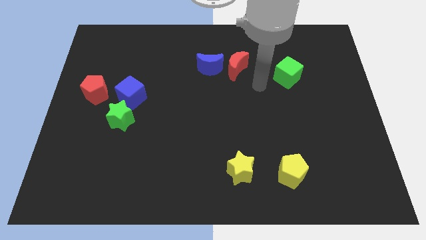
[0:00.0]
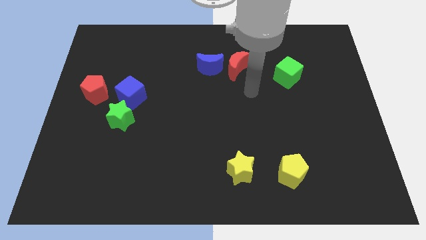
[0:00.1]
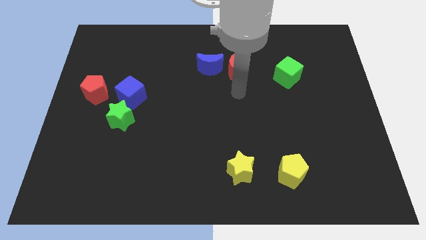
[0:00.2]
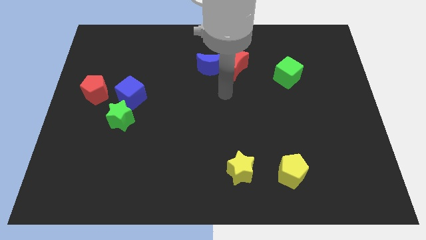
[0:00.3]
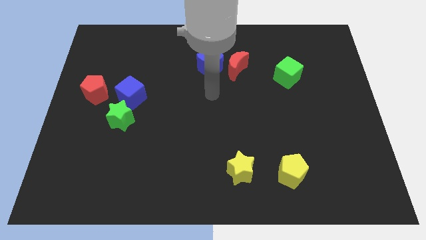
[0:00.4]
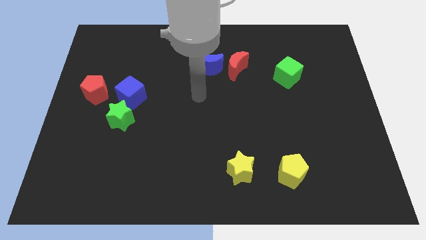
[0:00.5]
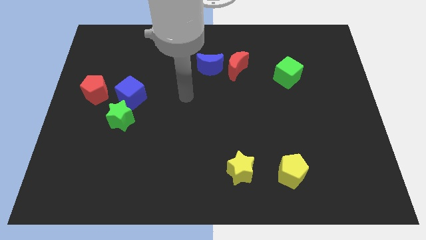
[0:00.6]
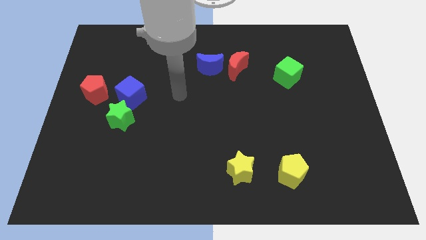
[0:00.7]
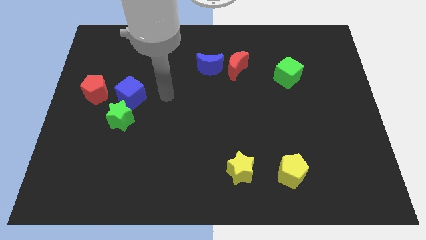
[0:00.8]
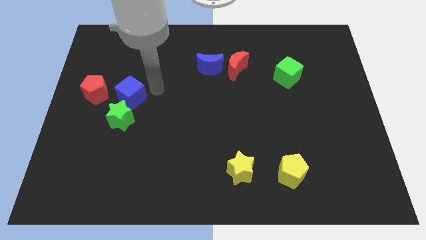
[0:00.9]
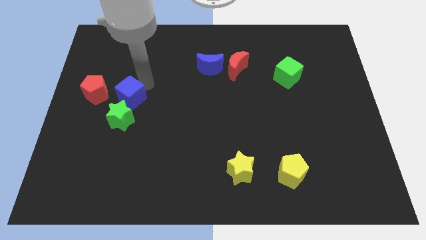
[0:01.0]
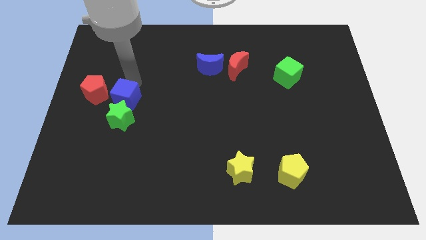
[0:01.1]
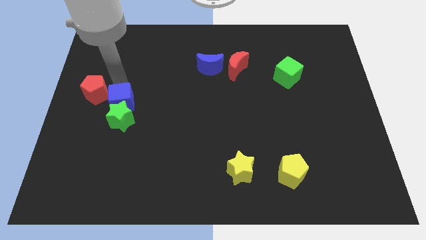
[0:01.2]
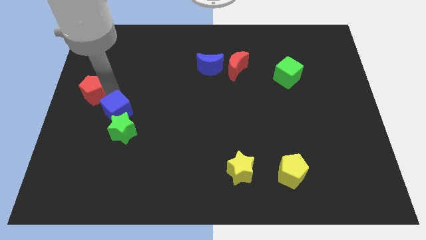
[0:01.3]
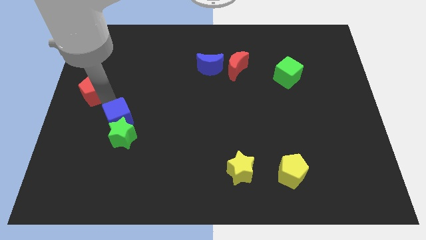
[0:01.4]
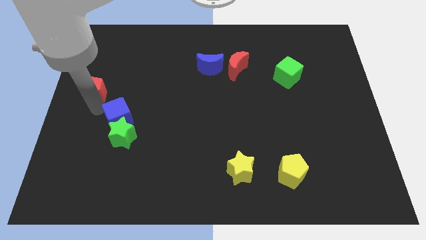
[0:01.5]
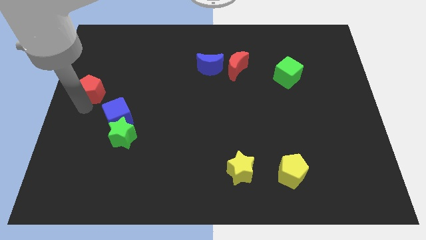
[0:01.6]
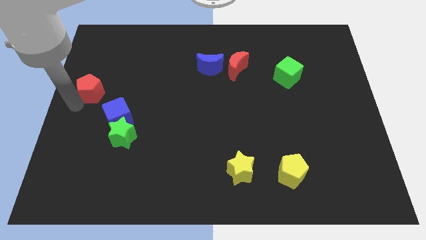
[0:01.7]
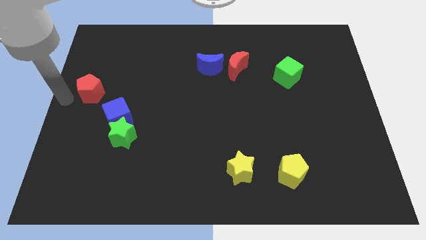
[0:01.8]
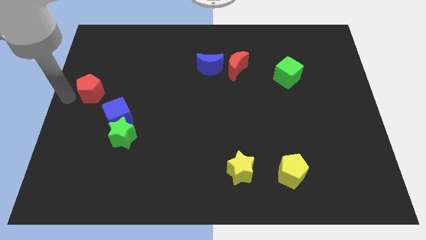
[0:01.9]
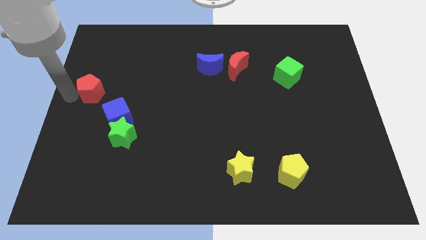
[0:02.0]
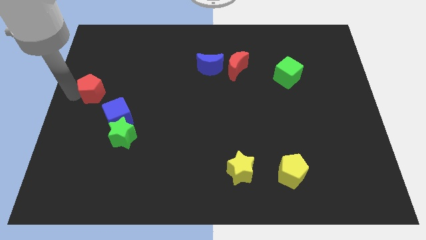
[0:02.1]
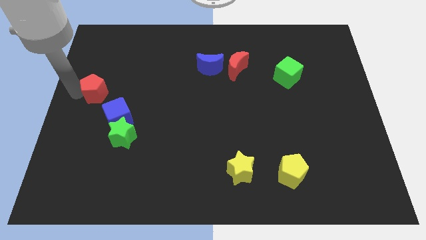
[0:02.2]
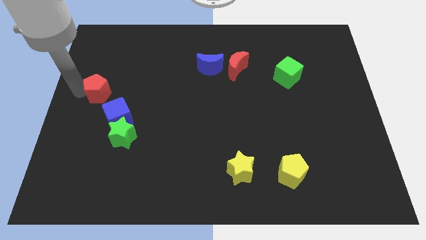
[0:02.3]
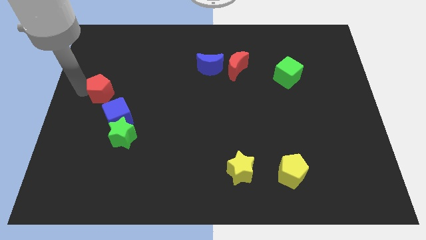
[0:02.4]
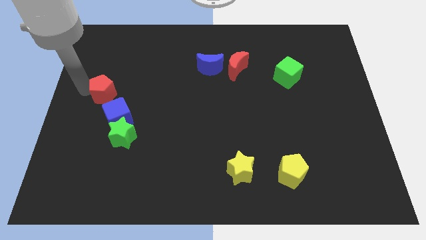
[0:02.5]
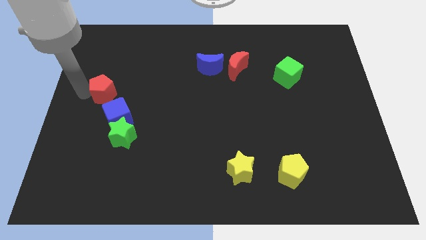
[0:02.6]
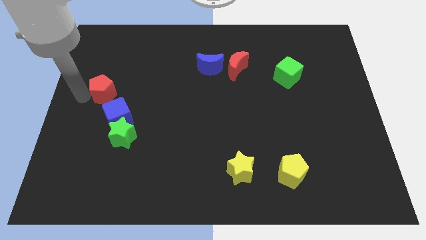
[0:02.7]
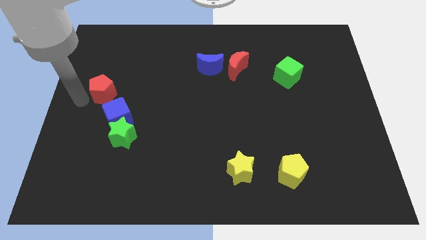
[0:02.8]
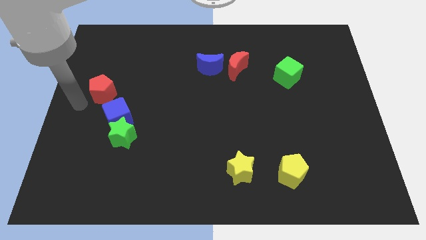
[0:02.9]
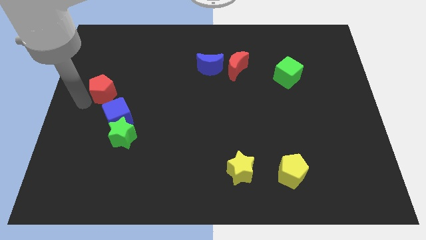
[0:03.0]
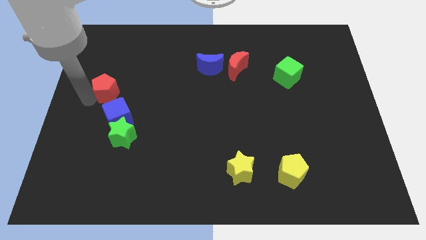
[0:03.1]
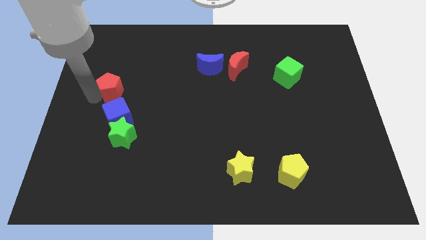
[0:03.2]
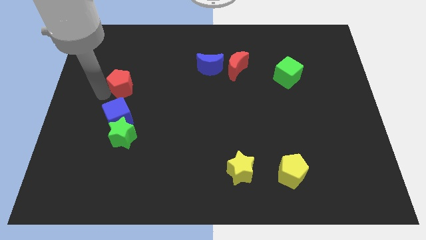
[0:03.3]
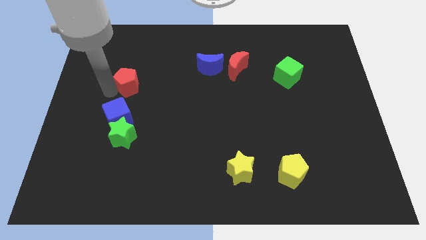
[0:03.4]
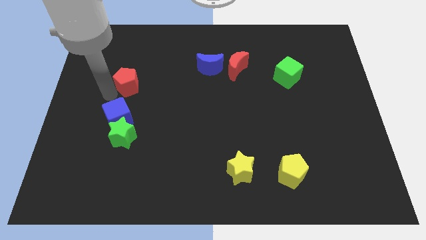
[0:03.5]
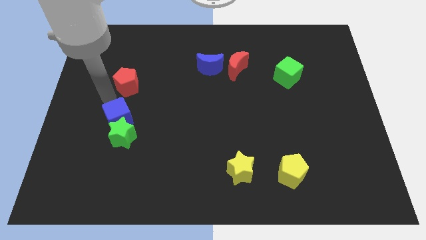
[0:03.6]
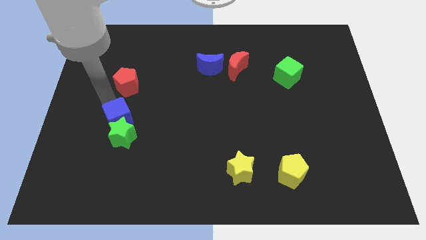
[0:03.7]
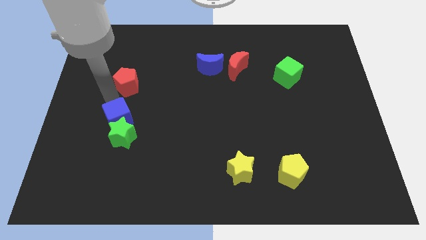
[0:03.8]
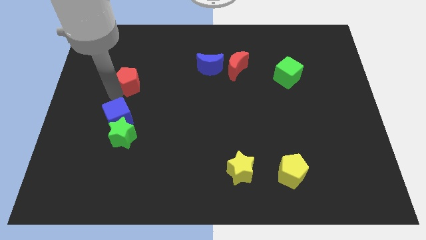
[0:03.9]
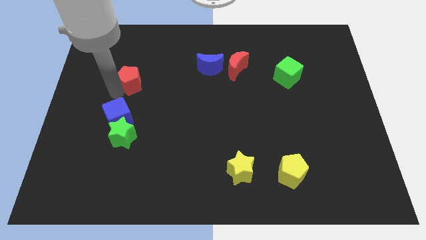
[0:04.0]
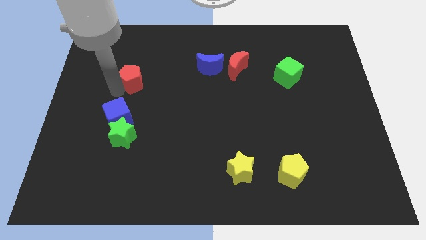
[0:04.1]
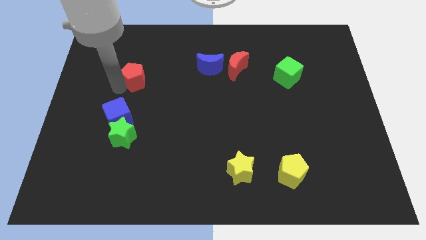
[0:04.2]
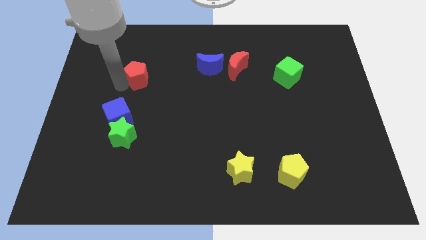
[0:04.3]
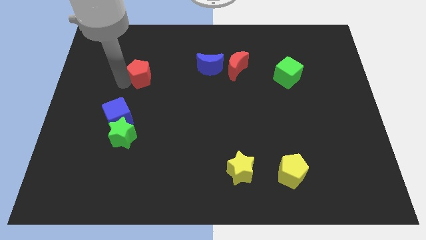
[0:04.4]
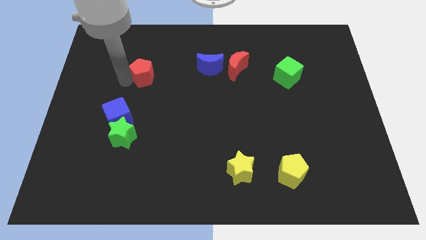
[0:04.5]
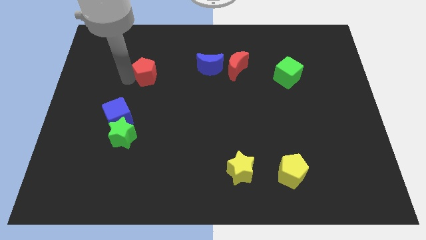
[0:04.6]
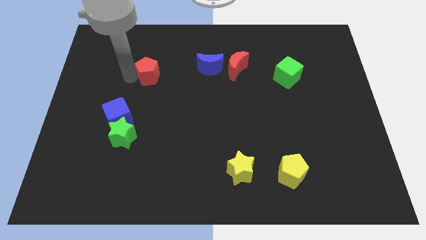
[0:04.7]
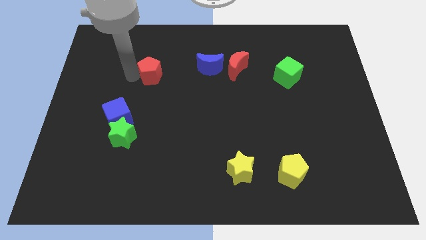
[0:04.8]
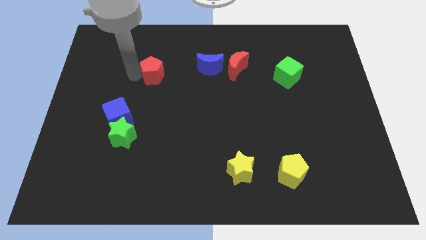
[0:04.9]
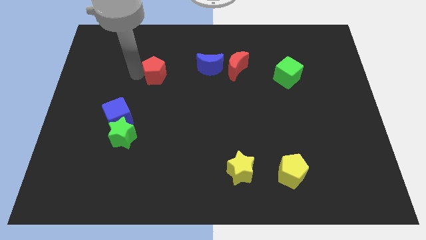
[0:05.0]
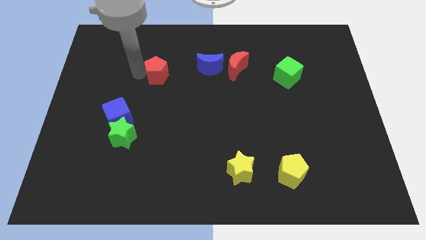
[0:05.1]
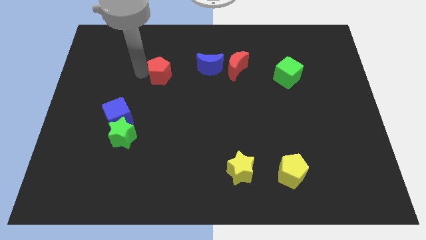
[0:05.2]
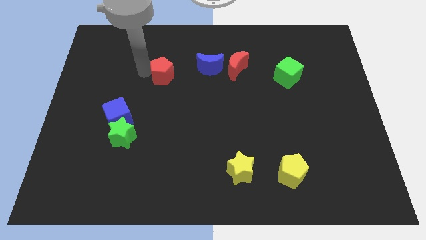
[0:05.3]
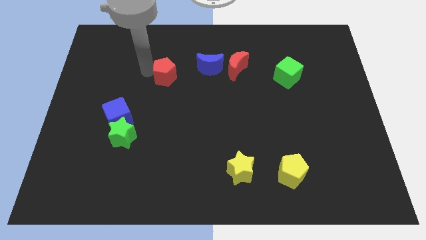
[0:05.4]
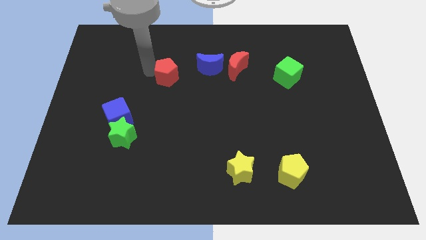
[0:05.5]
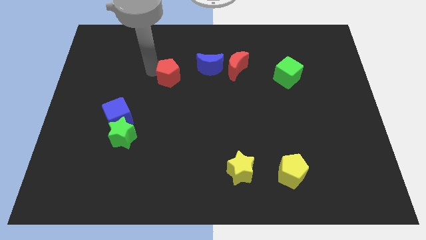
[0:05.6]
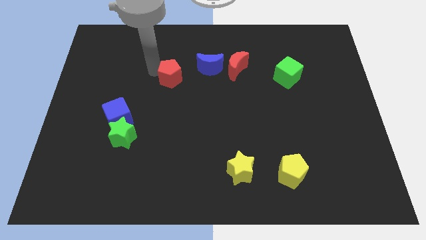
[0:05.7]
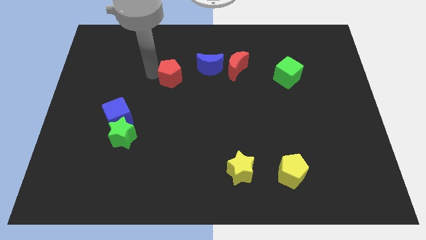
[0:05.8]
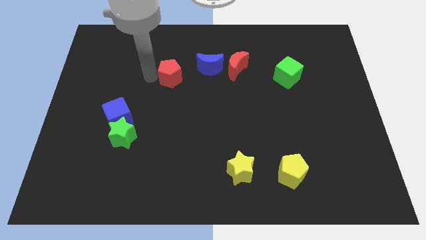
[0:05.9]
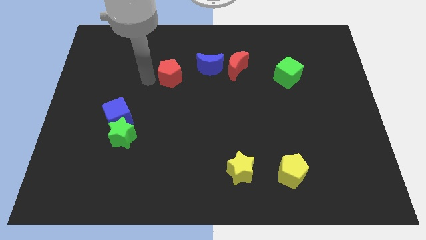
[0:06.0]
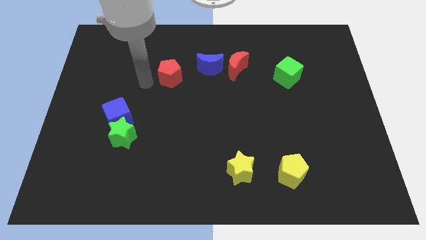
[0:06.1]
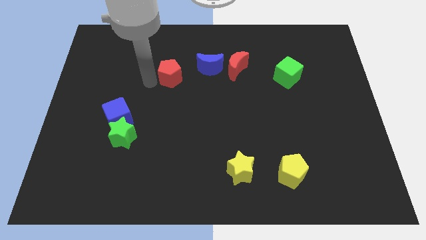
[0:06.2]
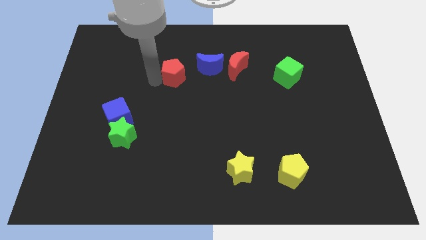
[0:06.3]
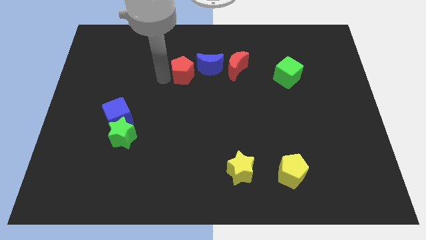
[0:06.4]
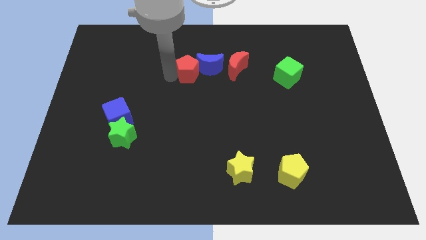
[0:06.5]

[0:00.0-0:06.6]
push the red pentagon next to the blue moon

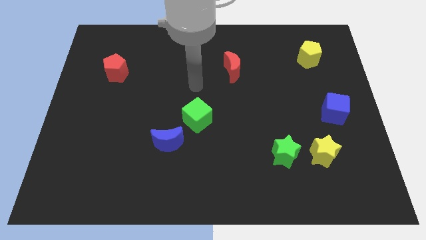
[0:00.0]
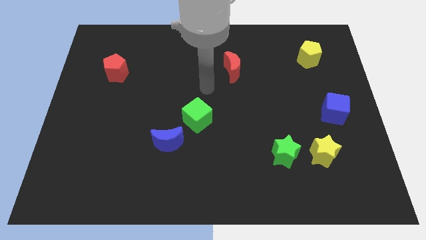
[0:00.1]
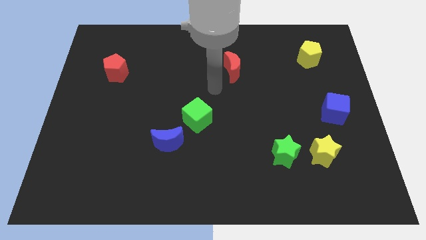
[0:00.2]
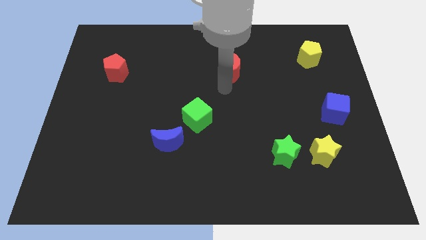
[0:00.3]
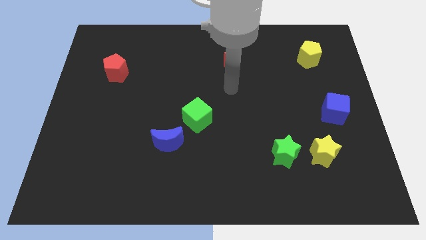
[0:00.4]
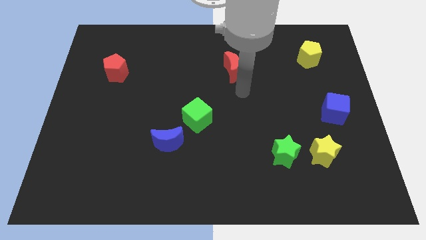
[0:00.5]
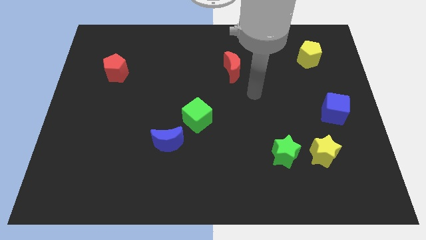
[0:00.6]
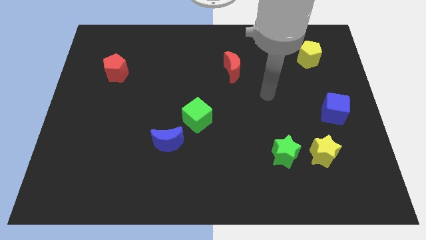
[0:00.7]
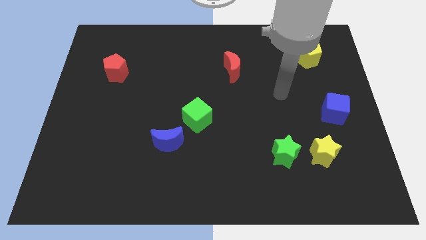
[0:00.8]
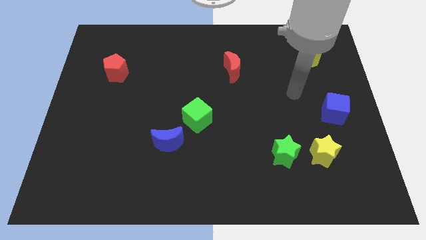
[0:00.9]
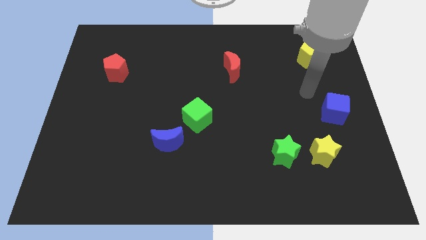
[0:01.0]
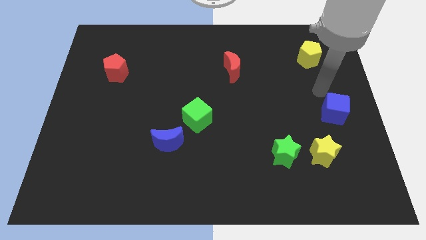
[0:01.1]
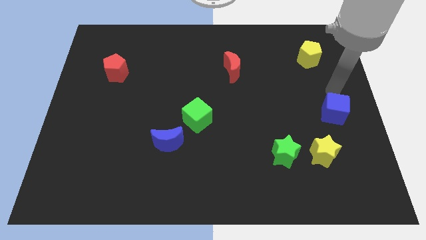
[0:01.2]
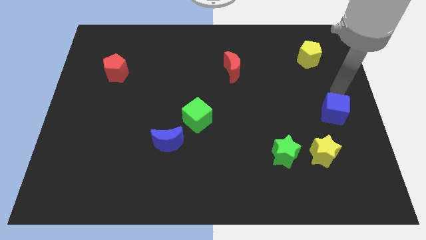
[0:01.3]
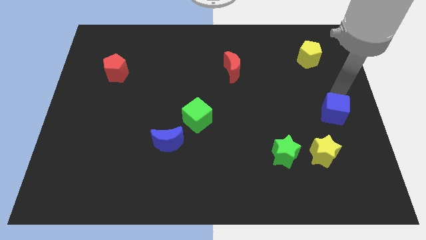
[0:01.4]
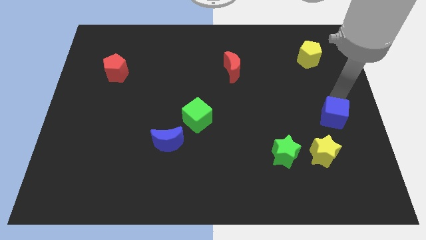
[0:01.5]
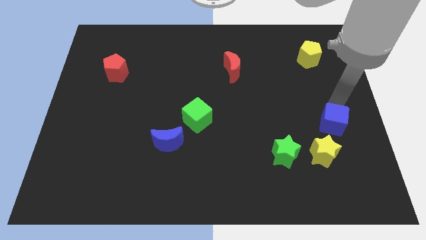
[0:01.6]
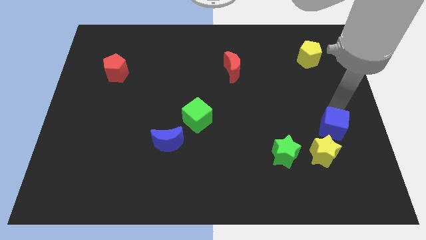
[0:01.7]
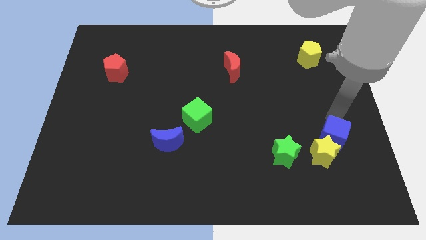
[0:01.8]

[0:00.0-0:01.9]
push the blue cube towards the yellow star
